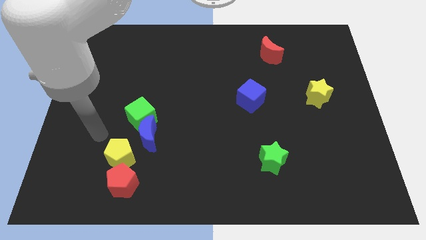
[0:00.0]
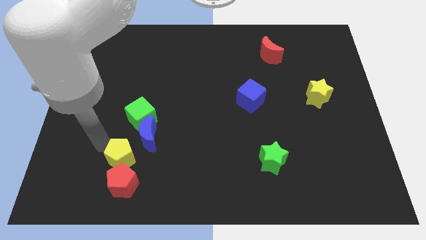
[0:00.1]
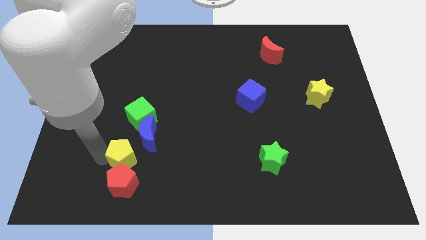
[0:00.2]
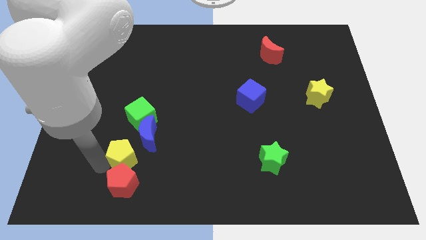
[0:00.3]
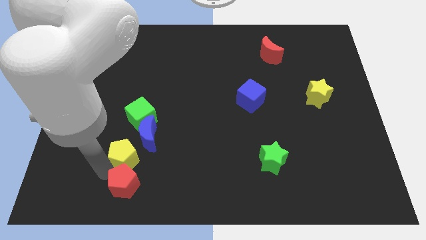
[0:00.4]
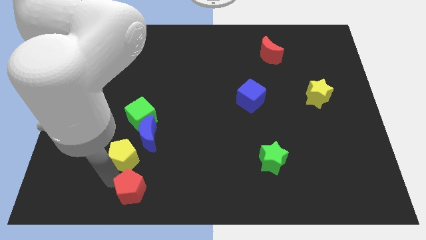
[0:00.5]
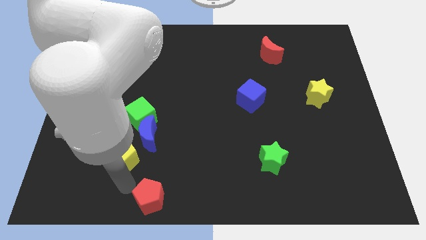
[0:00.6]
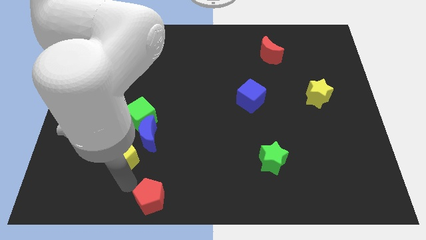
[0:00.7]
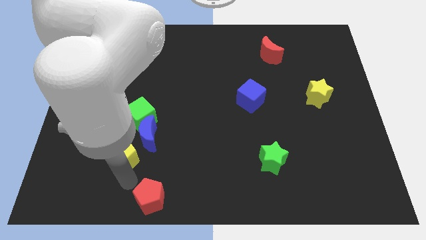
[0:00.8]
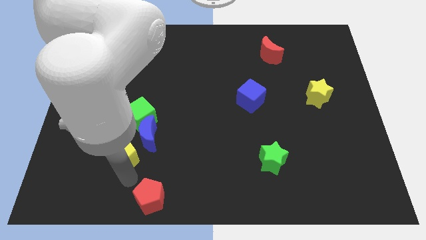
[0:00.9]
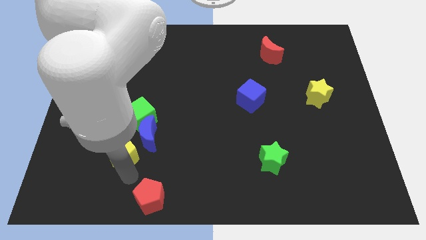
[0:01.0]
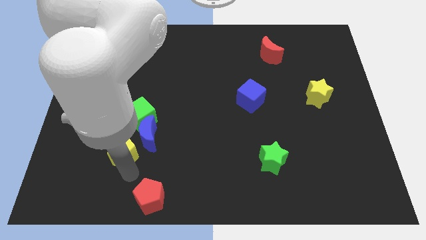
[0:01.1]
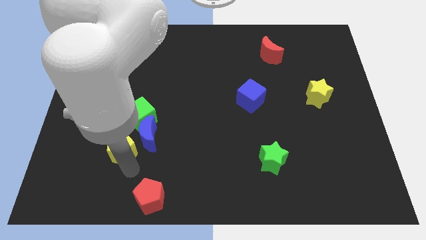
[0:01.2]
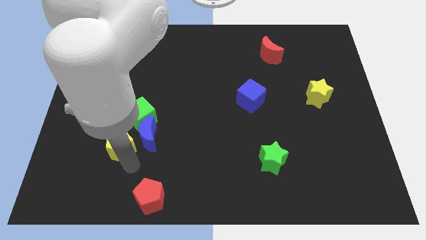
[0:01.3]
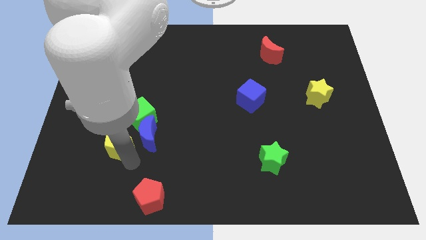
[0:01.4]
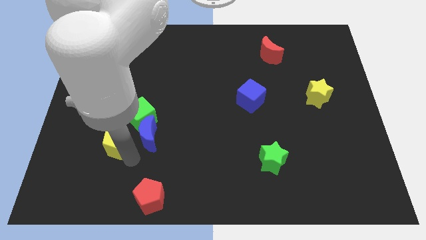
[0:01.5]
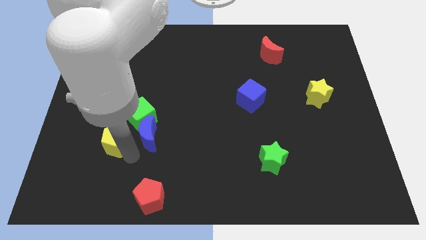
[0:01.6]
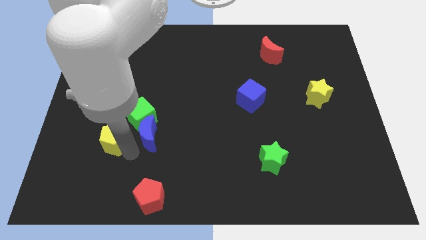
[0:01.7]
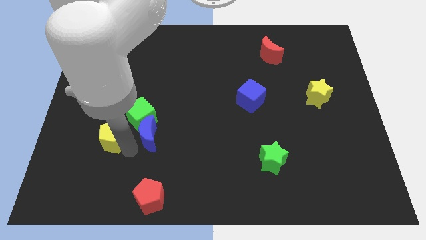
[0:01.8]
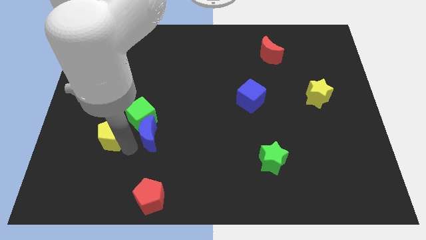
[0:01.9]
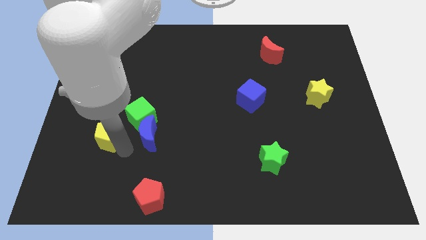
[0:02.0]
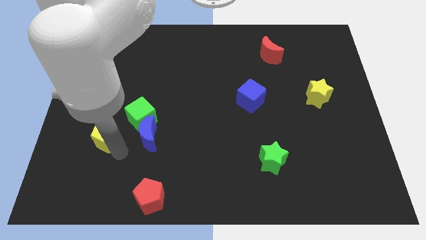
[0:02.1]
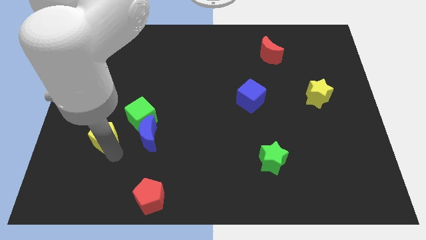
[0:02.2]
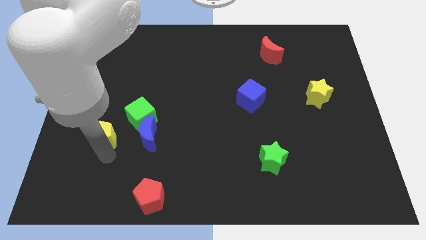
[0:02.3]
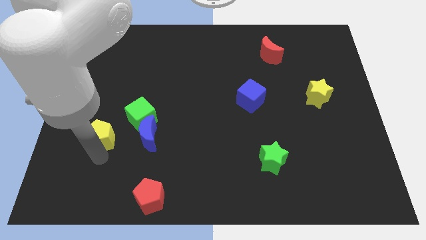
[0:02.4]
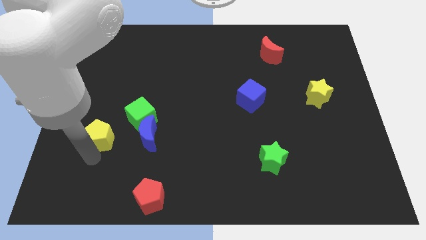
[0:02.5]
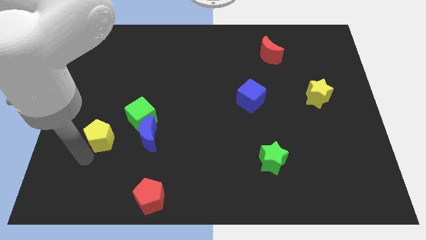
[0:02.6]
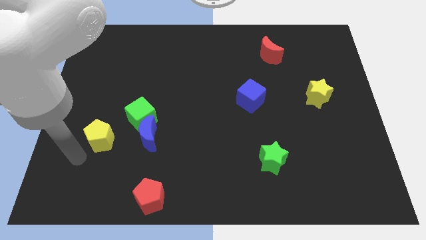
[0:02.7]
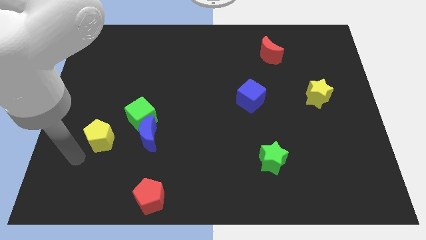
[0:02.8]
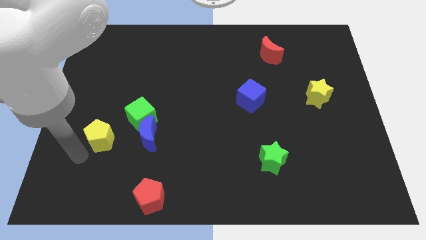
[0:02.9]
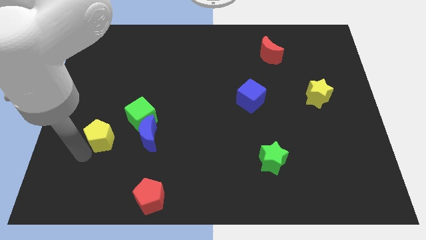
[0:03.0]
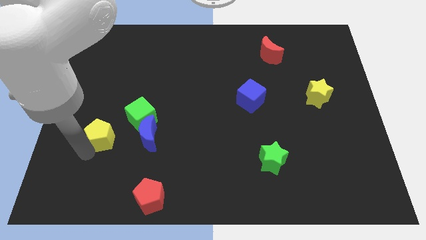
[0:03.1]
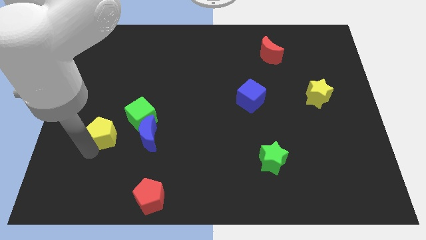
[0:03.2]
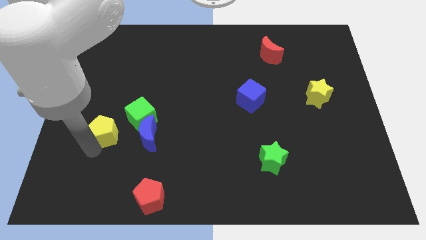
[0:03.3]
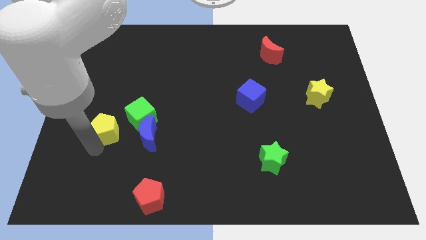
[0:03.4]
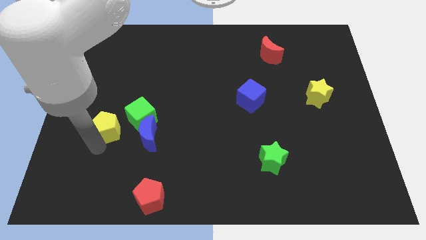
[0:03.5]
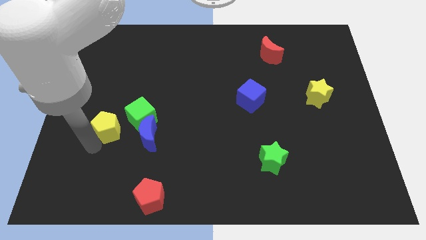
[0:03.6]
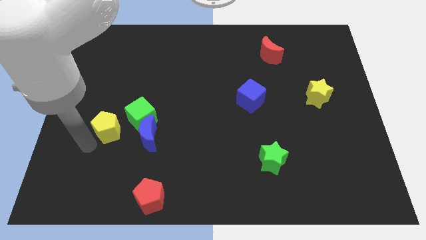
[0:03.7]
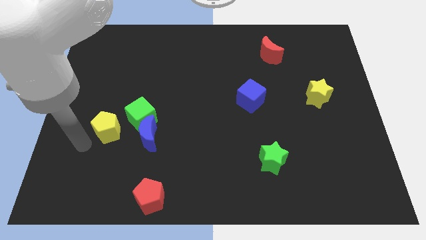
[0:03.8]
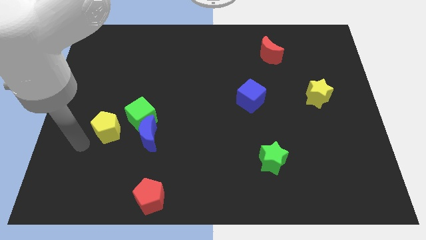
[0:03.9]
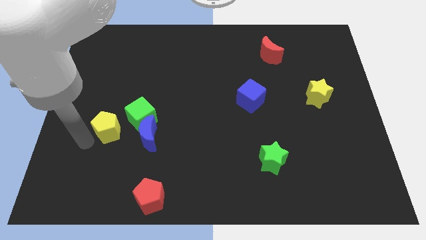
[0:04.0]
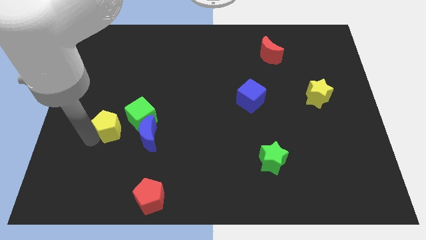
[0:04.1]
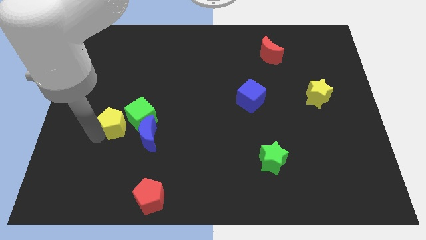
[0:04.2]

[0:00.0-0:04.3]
move the yellow pentagon up a little

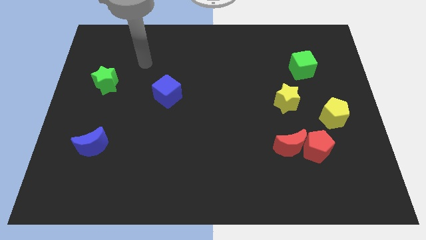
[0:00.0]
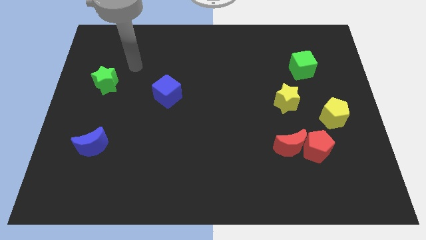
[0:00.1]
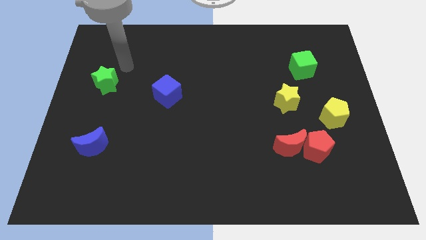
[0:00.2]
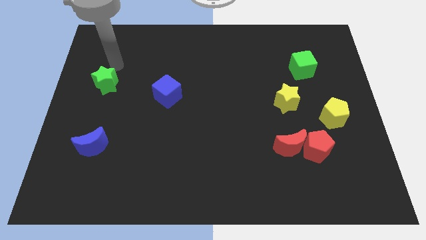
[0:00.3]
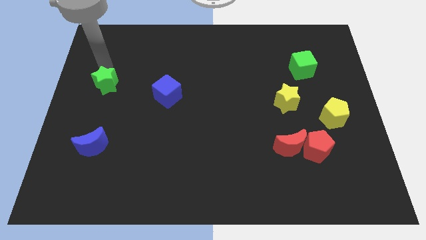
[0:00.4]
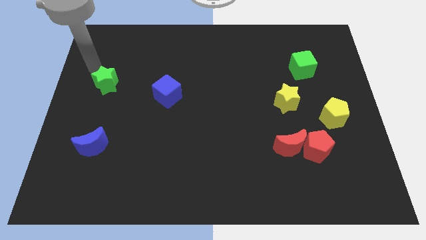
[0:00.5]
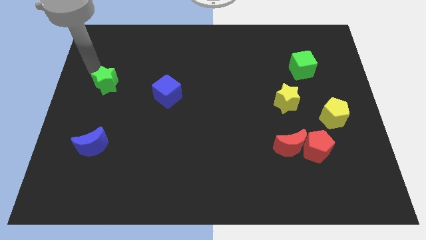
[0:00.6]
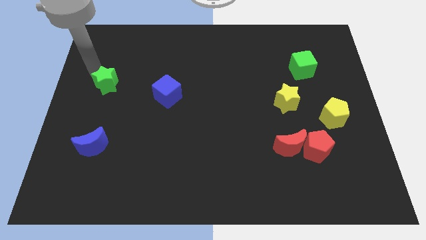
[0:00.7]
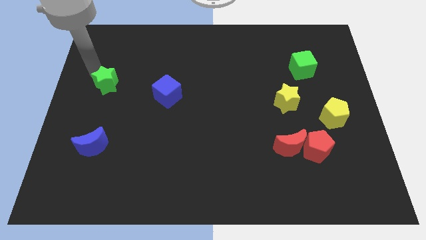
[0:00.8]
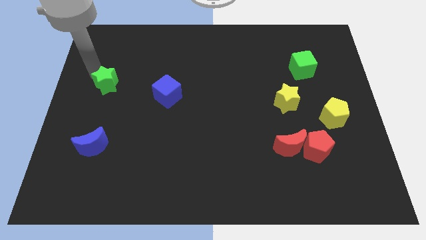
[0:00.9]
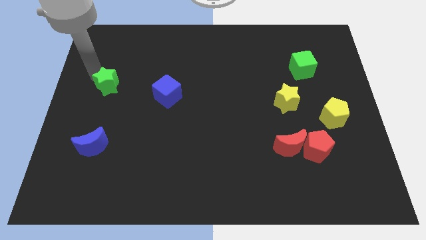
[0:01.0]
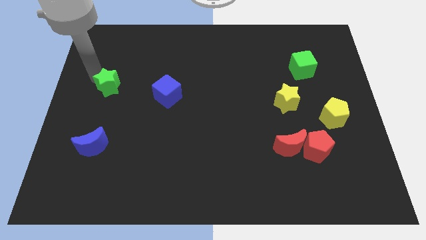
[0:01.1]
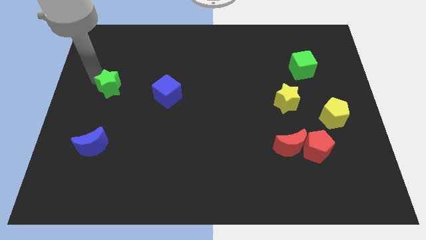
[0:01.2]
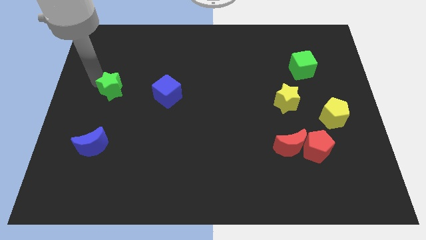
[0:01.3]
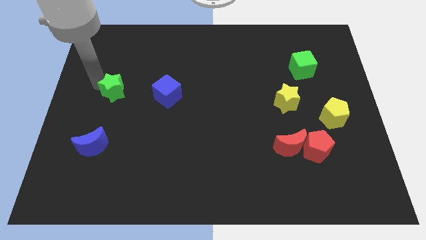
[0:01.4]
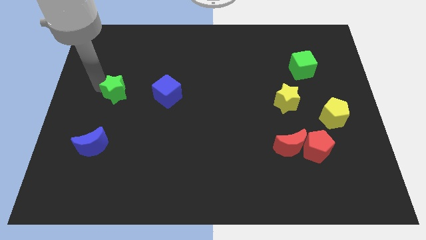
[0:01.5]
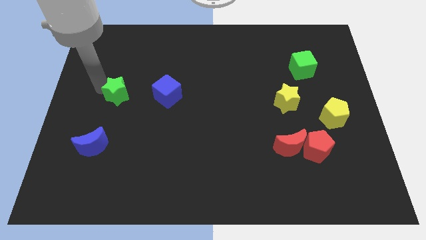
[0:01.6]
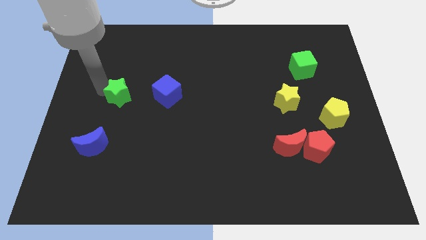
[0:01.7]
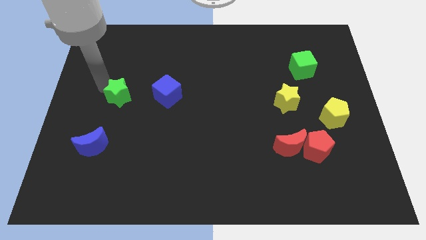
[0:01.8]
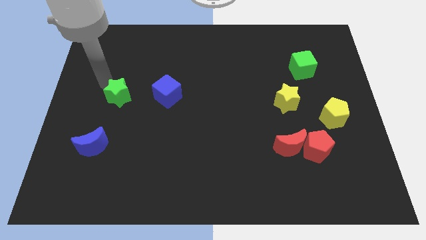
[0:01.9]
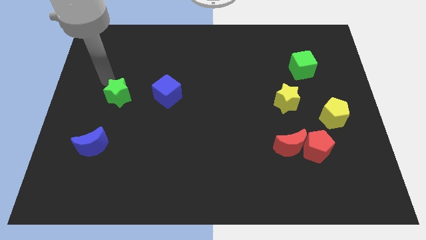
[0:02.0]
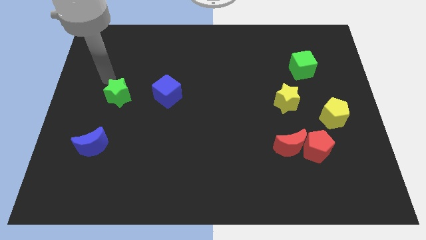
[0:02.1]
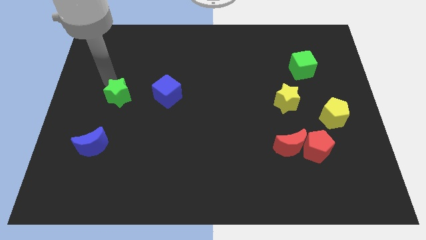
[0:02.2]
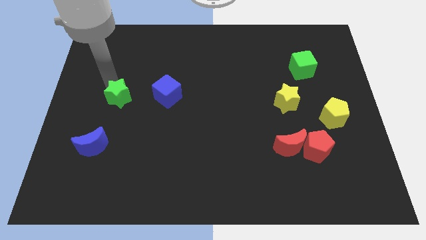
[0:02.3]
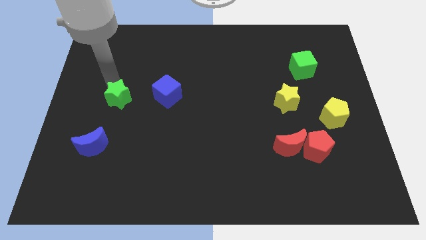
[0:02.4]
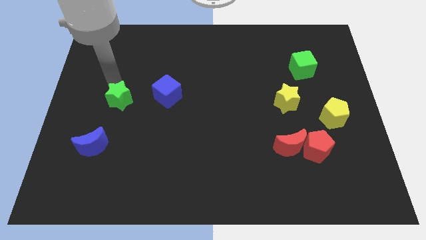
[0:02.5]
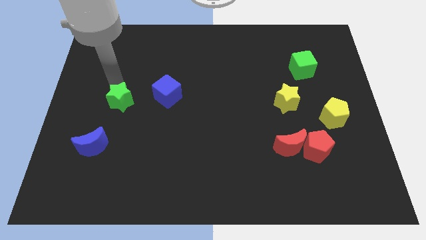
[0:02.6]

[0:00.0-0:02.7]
slightly slide the green star down and to the right

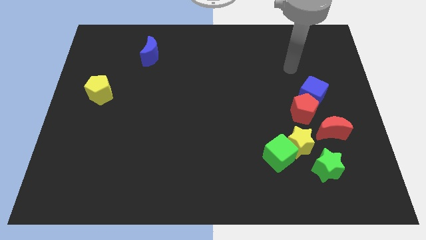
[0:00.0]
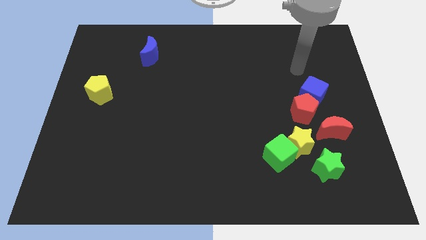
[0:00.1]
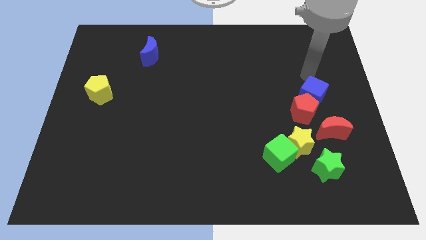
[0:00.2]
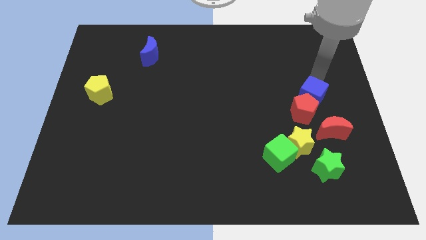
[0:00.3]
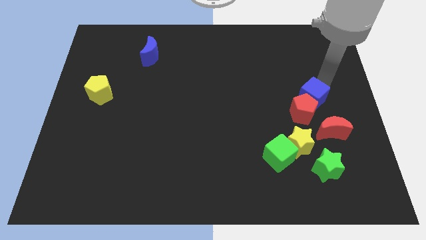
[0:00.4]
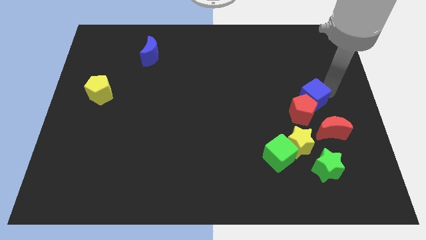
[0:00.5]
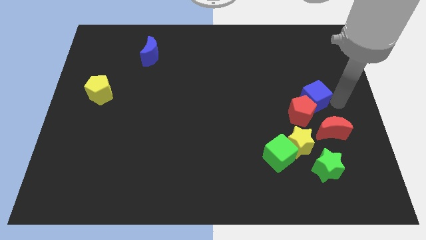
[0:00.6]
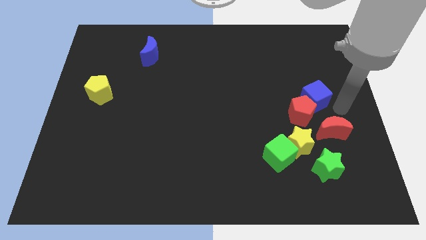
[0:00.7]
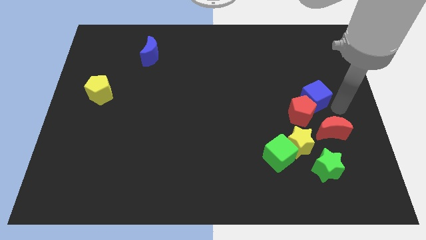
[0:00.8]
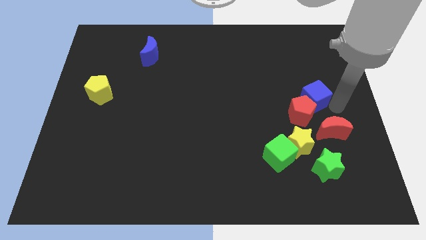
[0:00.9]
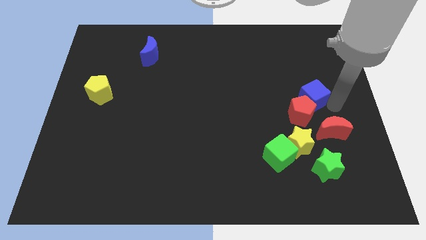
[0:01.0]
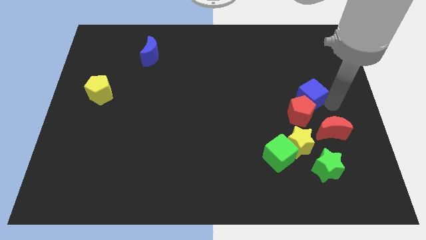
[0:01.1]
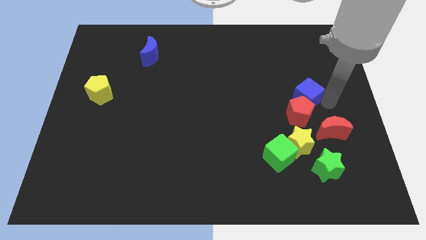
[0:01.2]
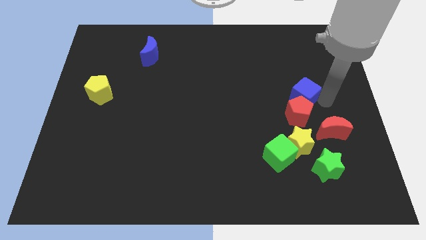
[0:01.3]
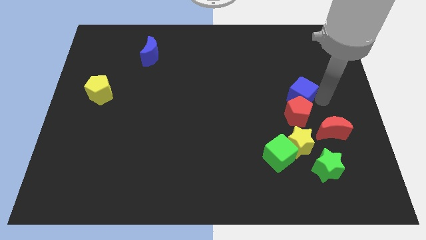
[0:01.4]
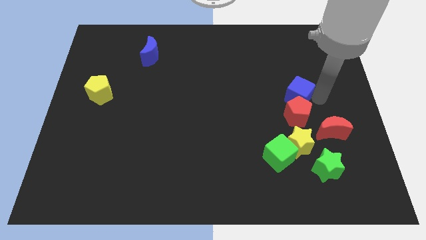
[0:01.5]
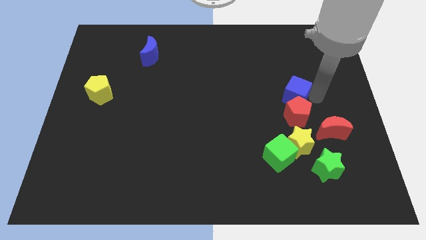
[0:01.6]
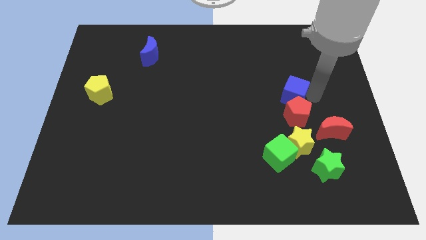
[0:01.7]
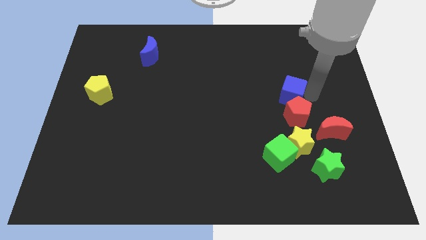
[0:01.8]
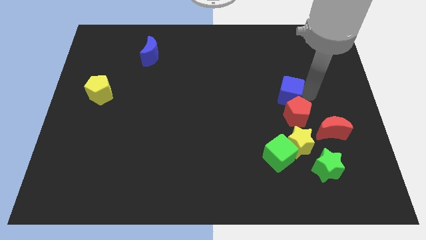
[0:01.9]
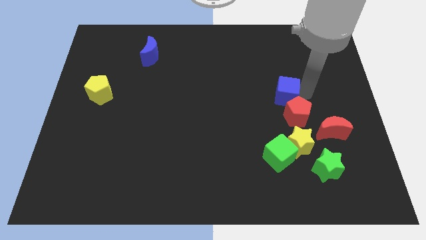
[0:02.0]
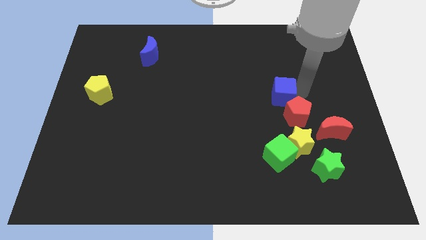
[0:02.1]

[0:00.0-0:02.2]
move the blue cube a little left
